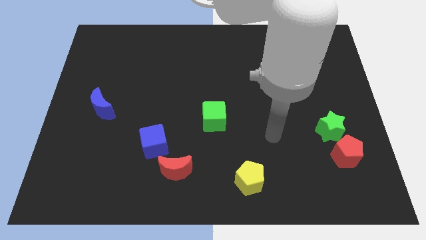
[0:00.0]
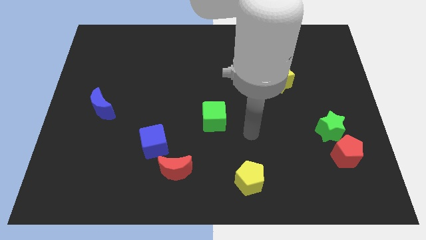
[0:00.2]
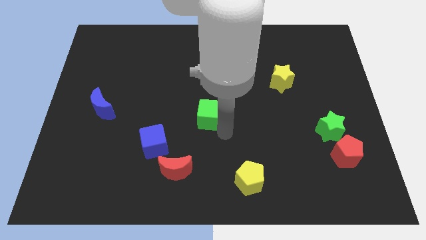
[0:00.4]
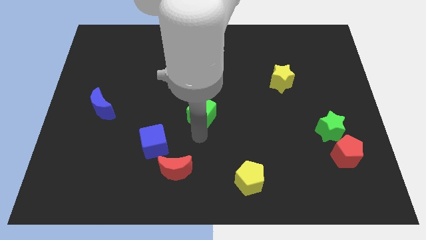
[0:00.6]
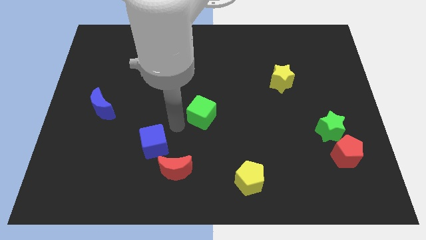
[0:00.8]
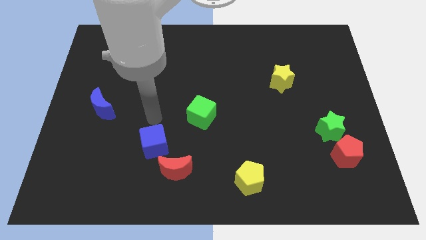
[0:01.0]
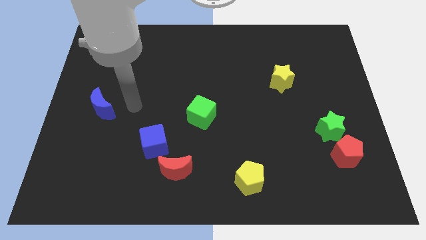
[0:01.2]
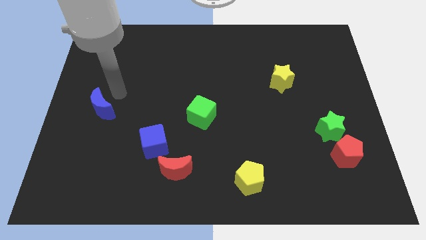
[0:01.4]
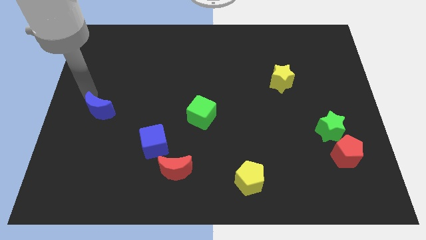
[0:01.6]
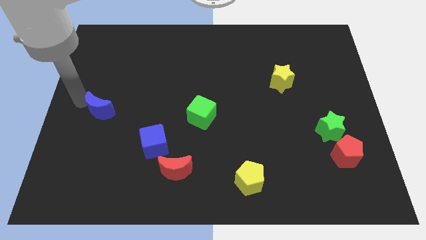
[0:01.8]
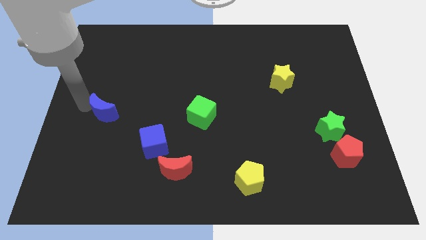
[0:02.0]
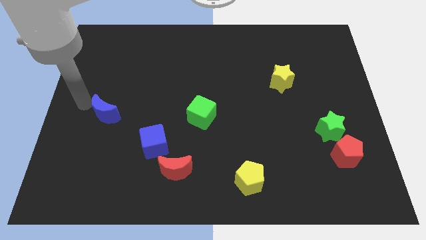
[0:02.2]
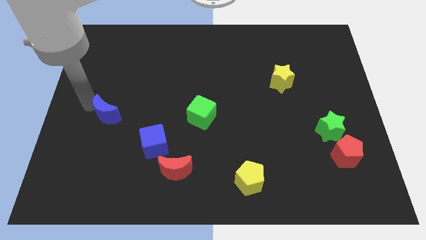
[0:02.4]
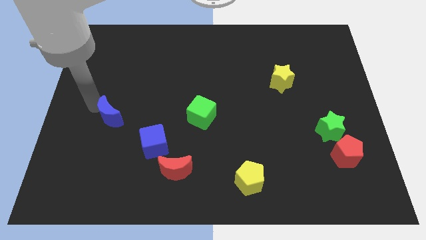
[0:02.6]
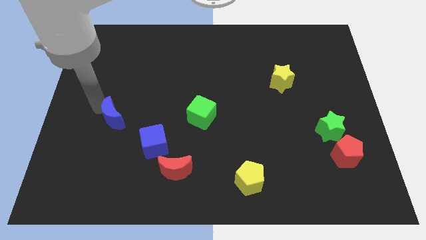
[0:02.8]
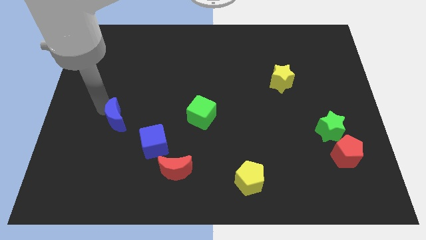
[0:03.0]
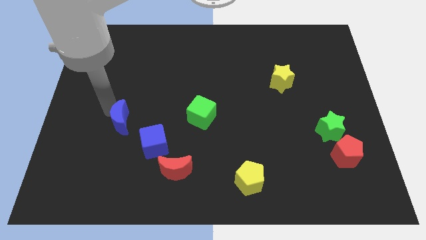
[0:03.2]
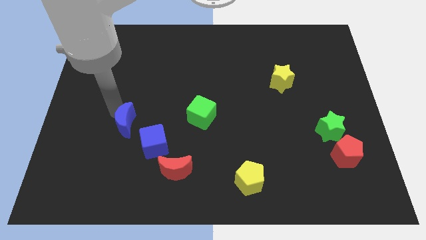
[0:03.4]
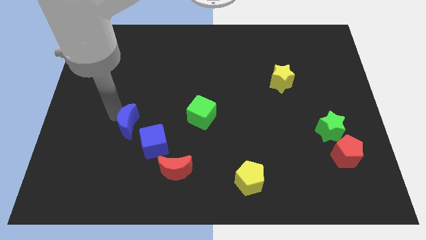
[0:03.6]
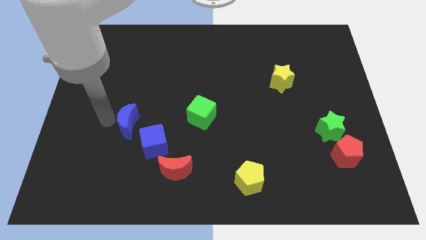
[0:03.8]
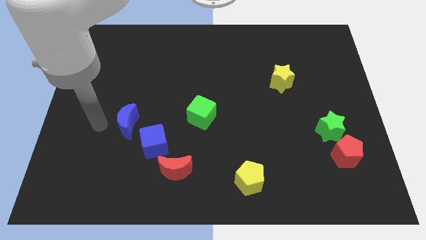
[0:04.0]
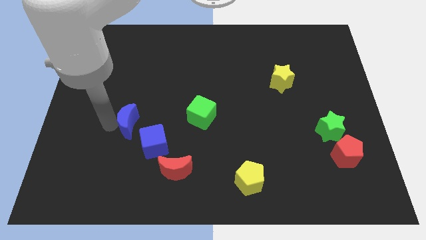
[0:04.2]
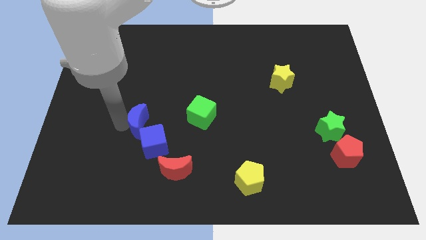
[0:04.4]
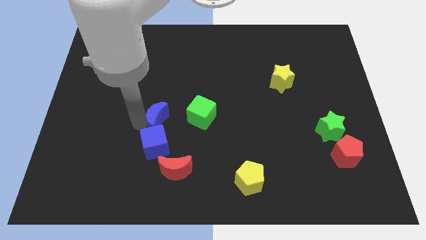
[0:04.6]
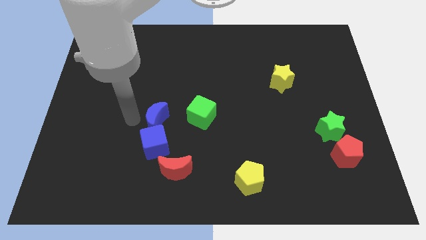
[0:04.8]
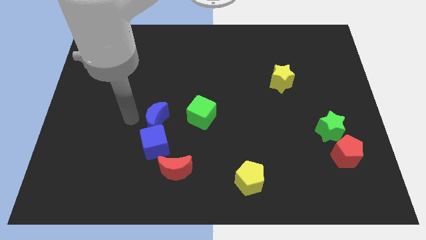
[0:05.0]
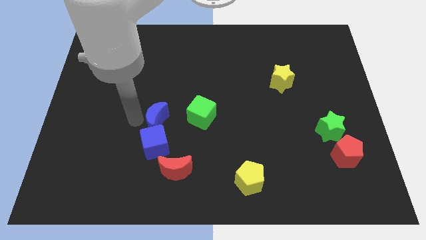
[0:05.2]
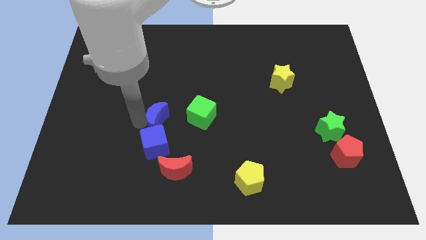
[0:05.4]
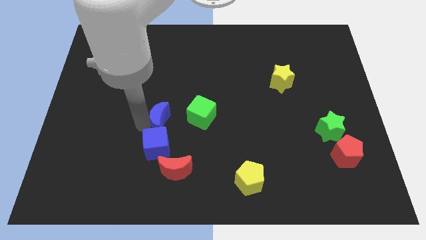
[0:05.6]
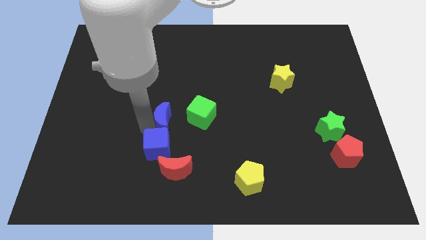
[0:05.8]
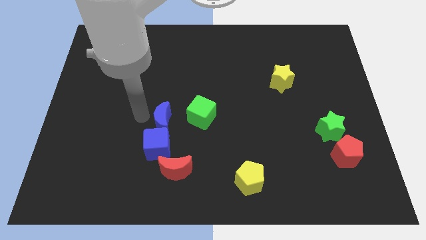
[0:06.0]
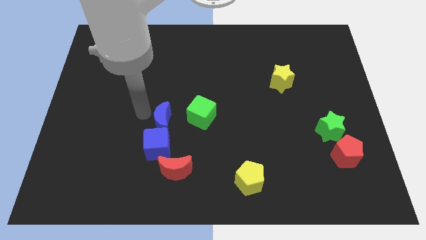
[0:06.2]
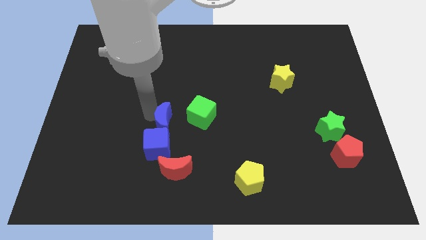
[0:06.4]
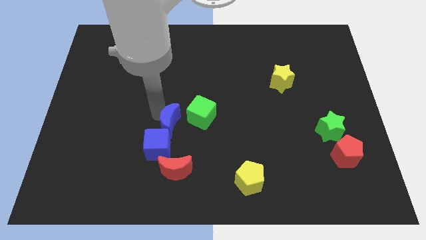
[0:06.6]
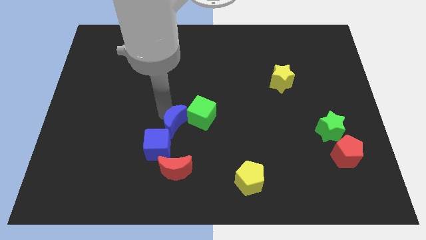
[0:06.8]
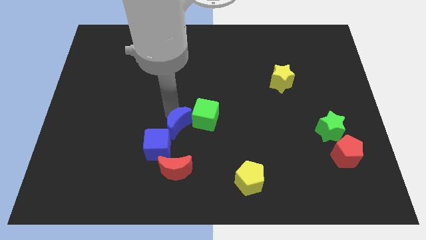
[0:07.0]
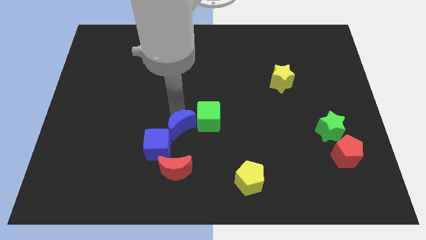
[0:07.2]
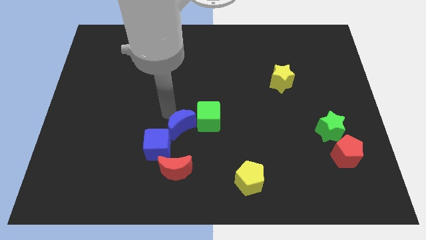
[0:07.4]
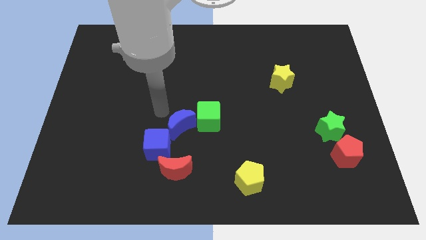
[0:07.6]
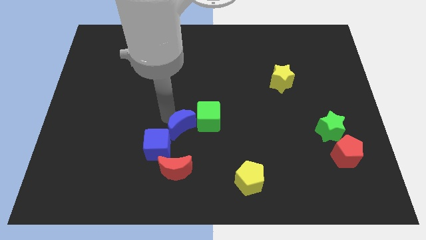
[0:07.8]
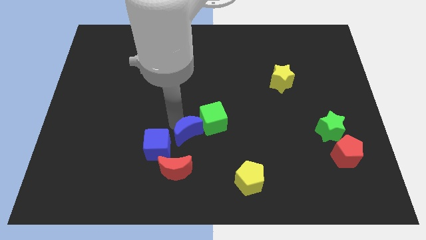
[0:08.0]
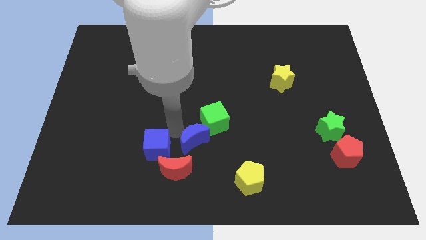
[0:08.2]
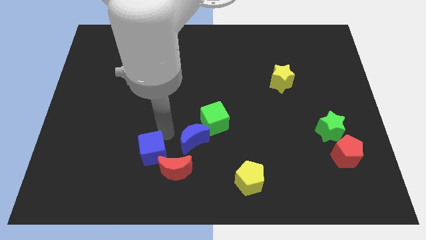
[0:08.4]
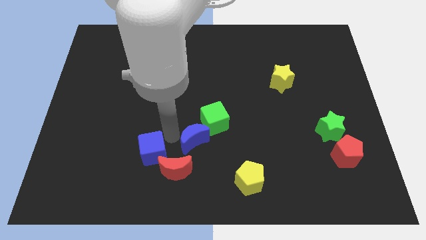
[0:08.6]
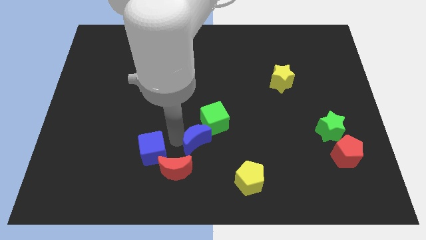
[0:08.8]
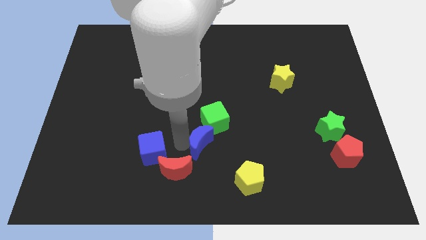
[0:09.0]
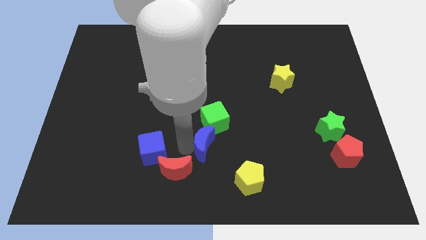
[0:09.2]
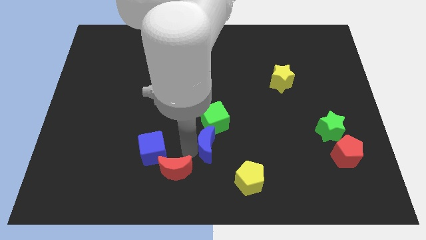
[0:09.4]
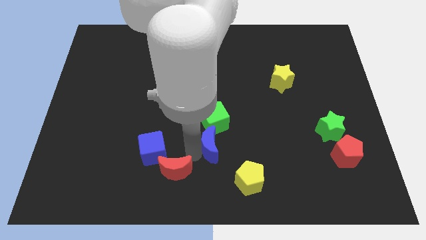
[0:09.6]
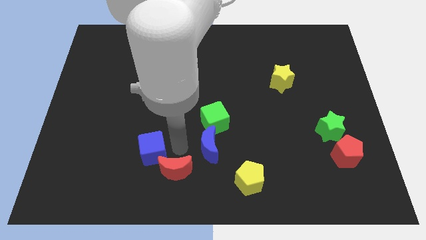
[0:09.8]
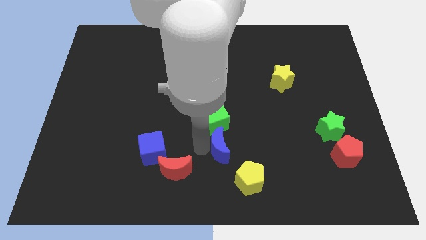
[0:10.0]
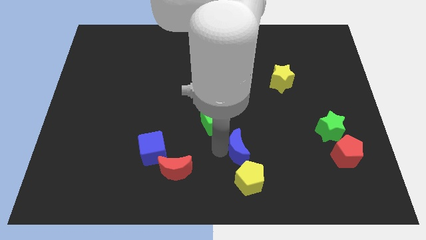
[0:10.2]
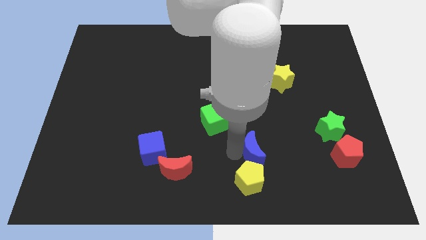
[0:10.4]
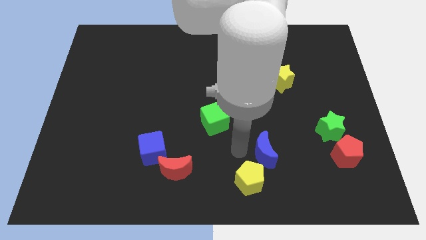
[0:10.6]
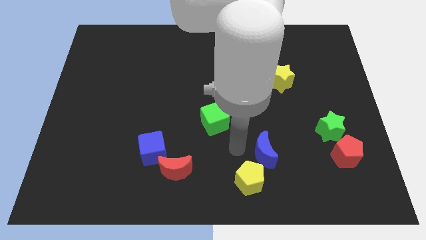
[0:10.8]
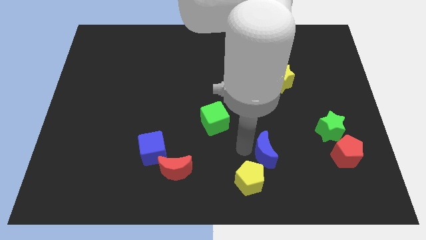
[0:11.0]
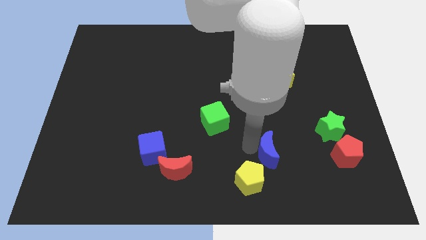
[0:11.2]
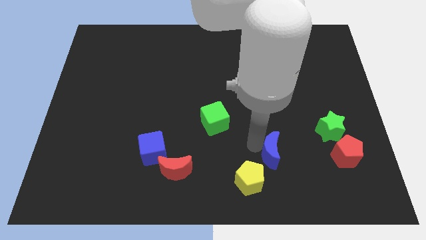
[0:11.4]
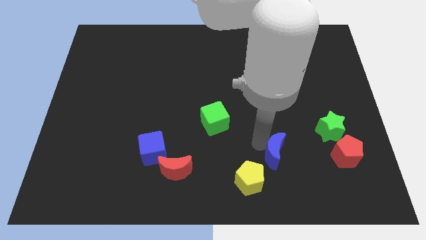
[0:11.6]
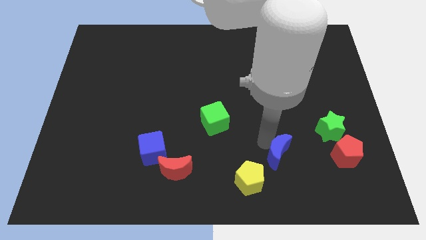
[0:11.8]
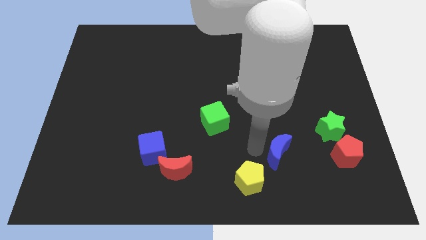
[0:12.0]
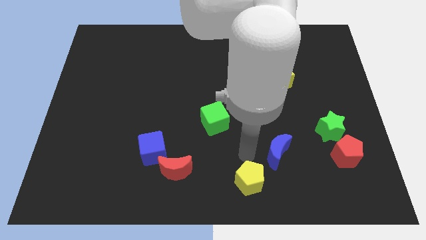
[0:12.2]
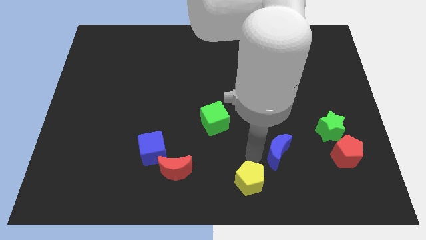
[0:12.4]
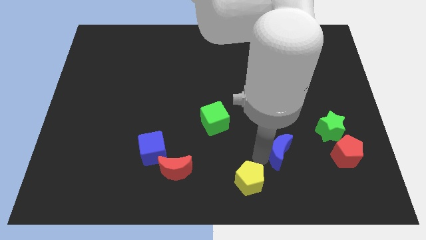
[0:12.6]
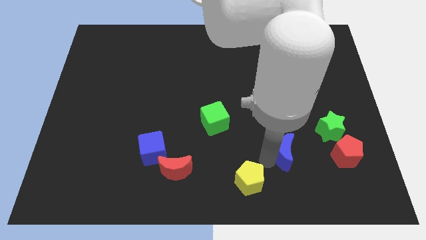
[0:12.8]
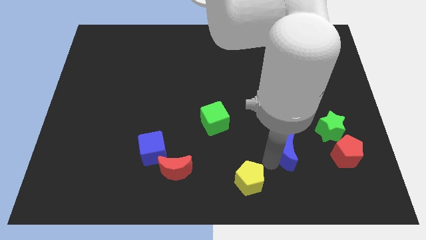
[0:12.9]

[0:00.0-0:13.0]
push the blue moon diagonally down and to the left of the green star

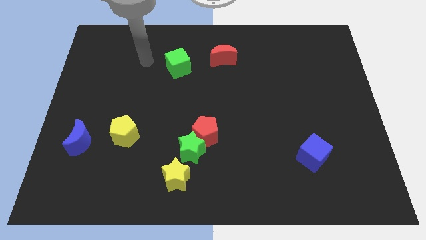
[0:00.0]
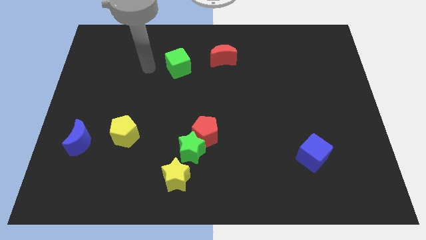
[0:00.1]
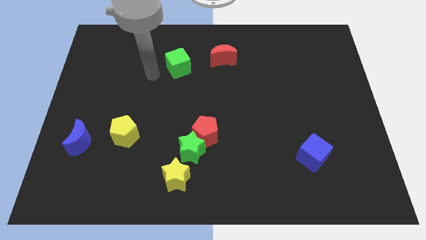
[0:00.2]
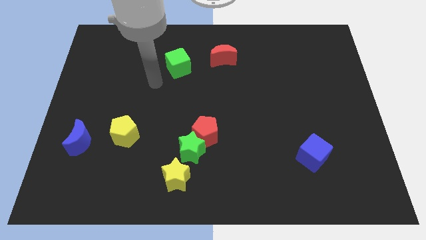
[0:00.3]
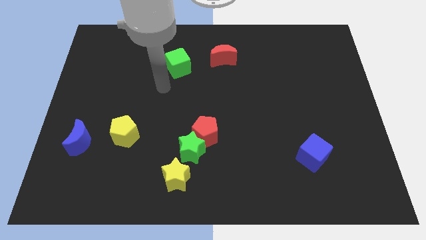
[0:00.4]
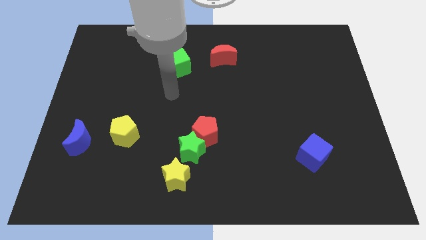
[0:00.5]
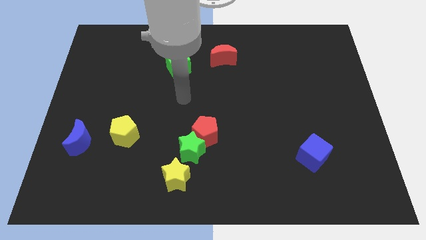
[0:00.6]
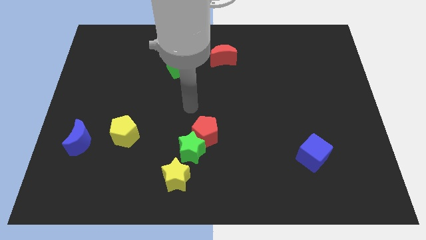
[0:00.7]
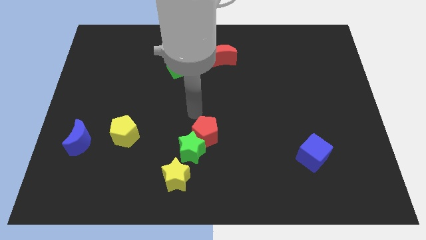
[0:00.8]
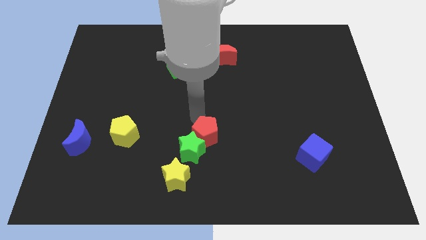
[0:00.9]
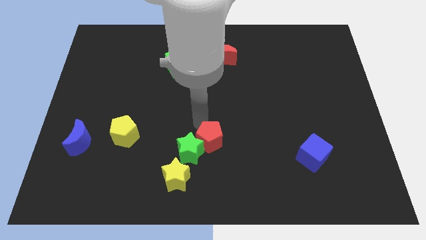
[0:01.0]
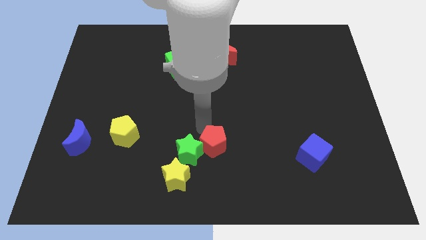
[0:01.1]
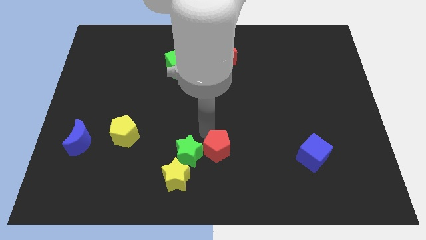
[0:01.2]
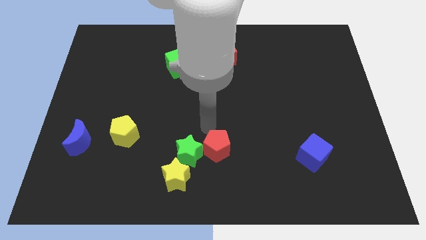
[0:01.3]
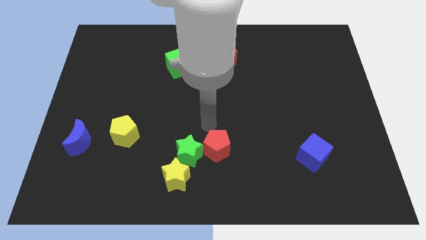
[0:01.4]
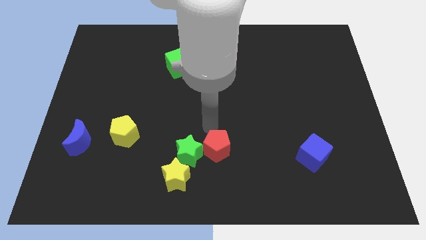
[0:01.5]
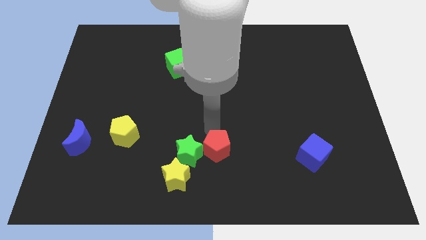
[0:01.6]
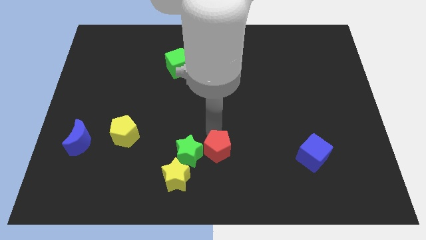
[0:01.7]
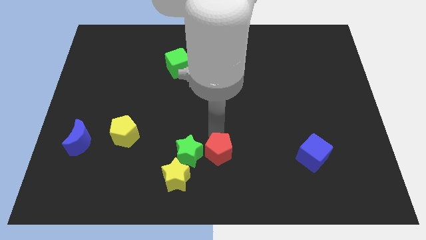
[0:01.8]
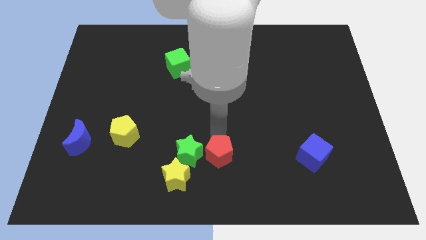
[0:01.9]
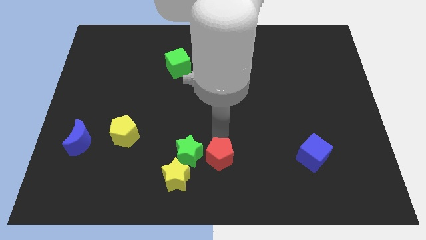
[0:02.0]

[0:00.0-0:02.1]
put the red pentagon right of the yellow star
